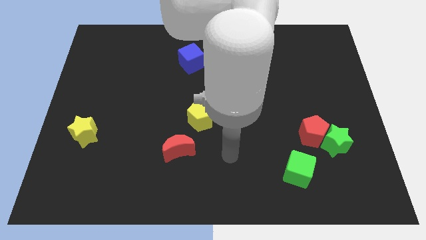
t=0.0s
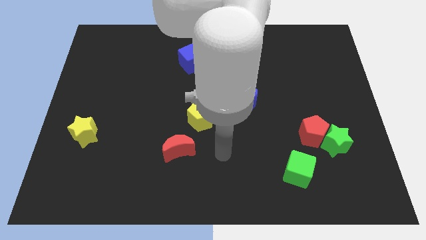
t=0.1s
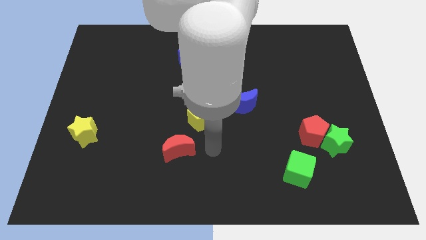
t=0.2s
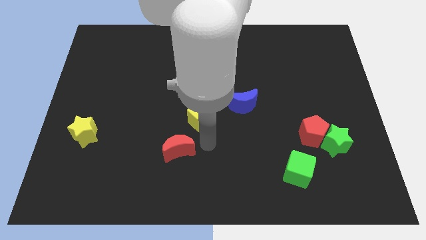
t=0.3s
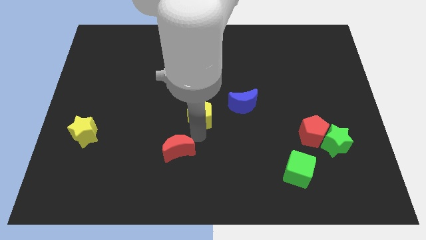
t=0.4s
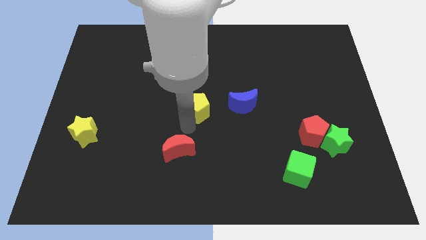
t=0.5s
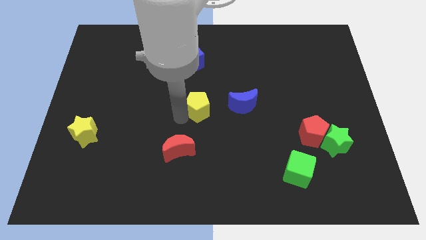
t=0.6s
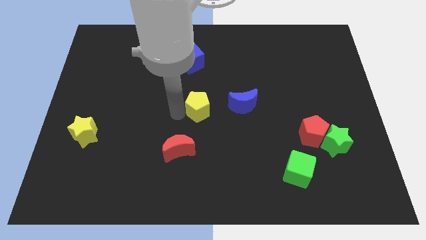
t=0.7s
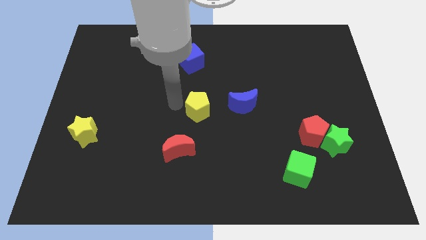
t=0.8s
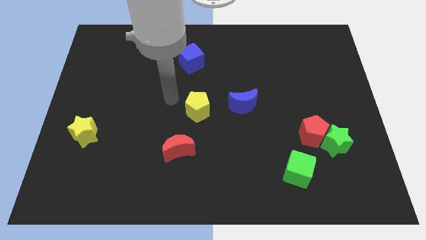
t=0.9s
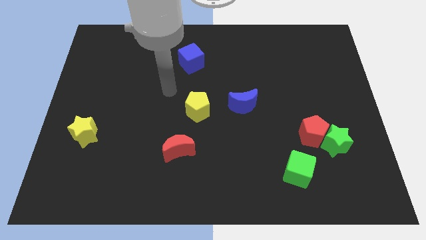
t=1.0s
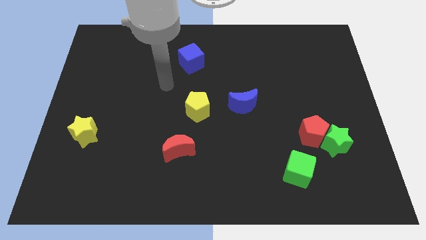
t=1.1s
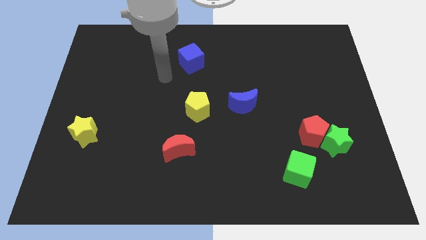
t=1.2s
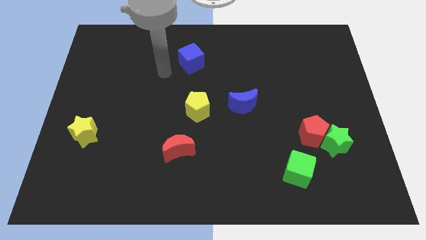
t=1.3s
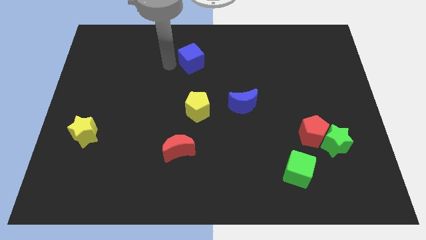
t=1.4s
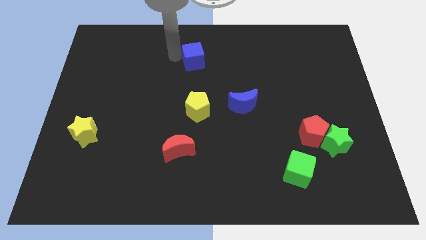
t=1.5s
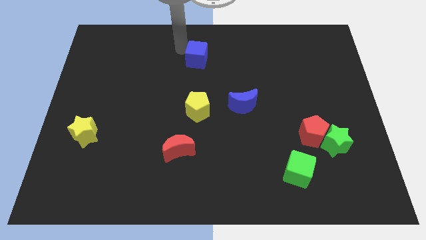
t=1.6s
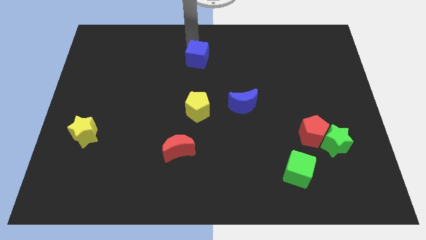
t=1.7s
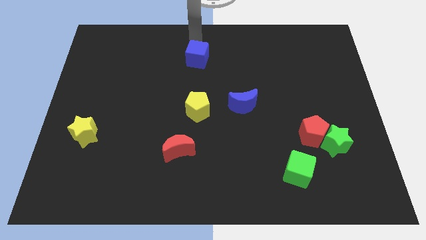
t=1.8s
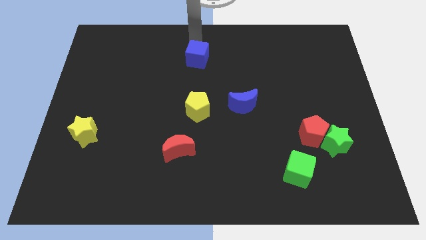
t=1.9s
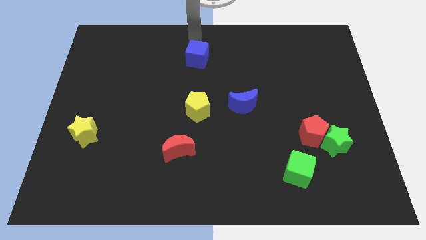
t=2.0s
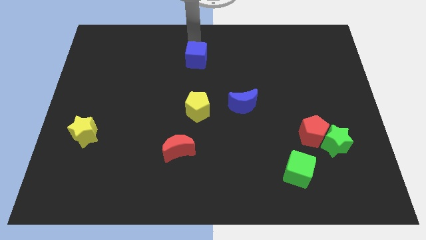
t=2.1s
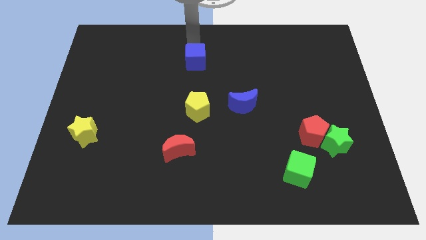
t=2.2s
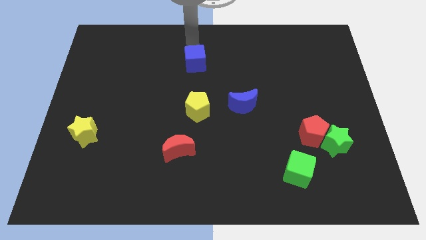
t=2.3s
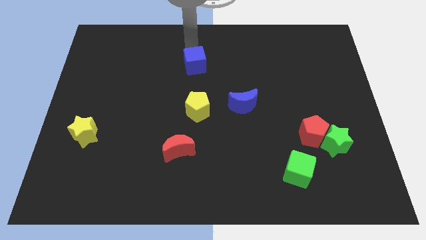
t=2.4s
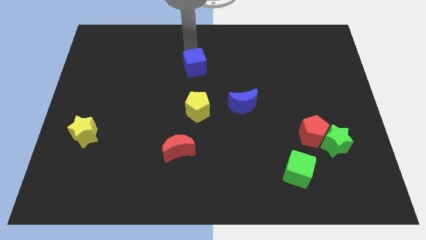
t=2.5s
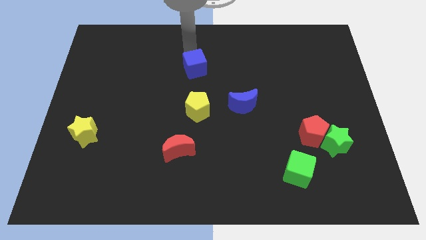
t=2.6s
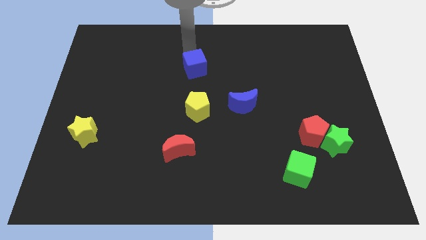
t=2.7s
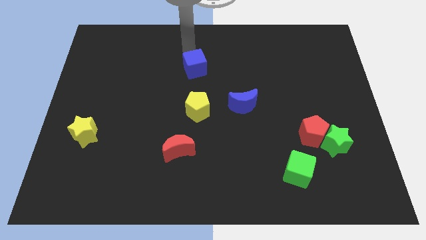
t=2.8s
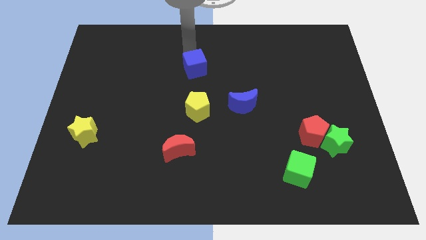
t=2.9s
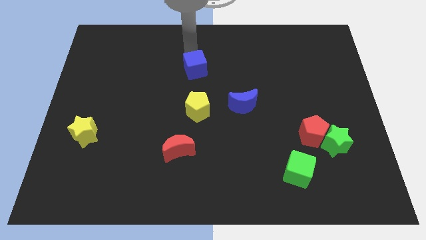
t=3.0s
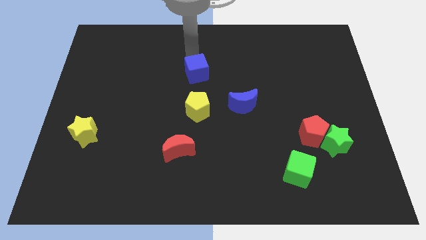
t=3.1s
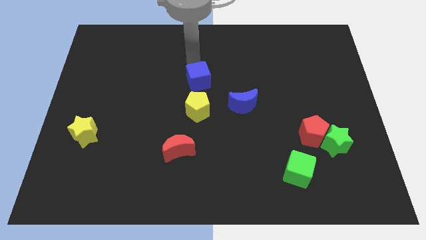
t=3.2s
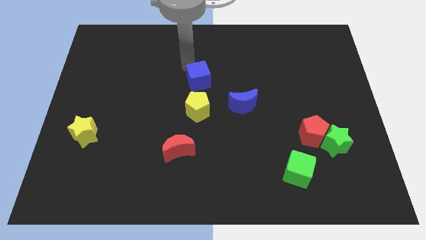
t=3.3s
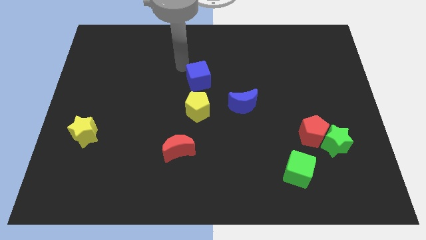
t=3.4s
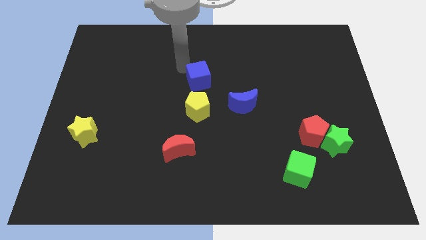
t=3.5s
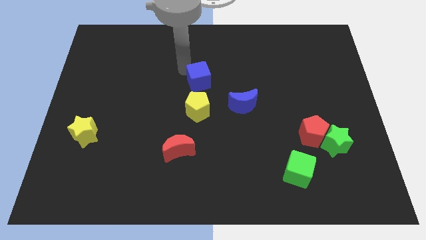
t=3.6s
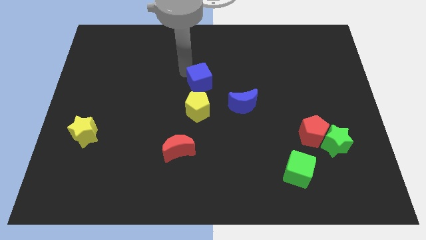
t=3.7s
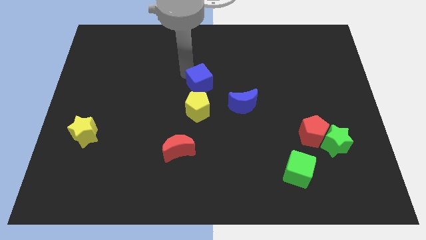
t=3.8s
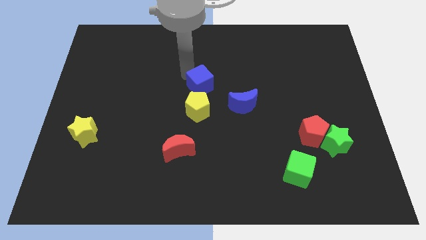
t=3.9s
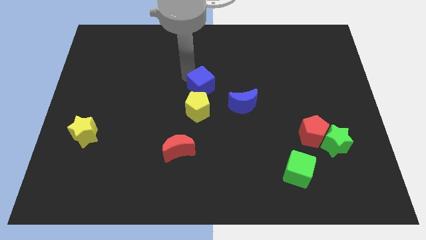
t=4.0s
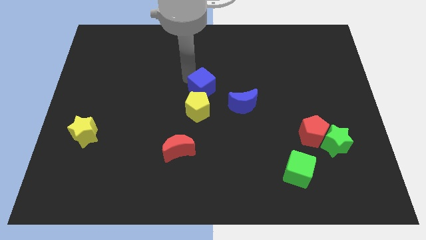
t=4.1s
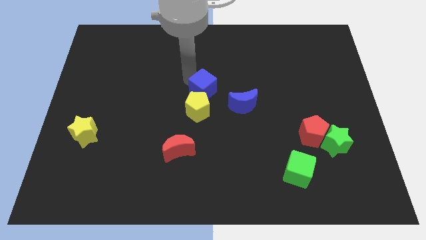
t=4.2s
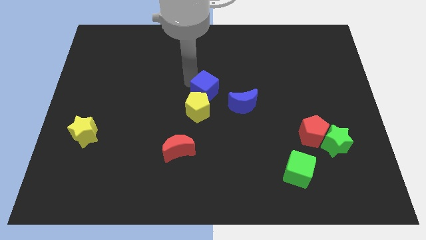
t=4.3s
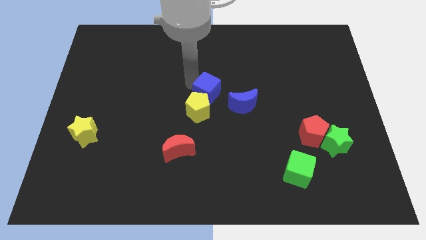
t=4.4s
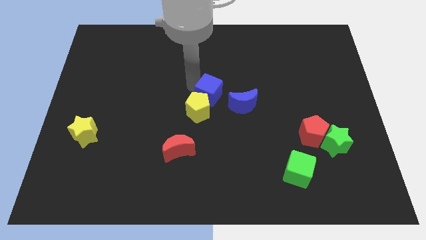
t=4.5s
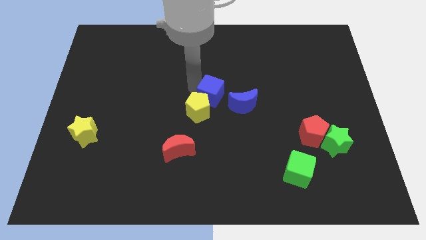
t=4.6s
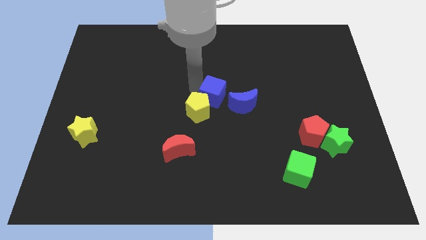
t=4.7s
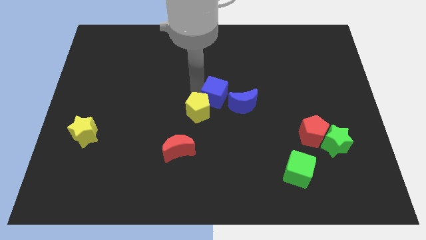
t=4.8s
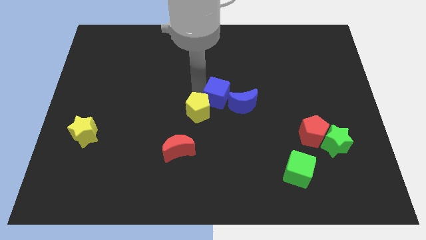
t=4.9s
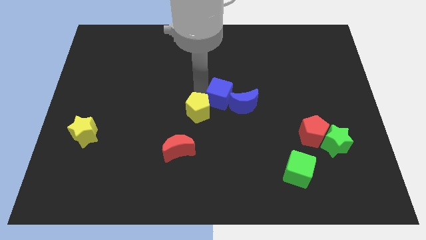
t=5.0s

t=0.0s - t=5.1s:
slide the blue cube to the blue moon

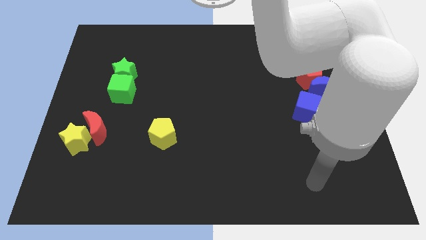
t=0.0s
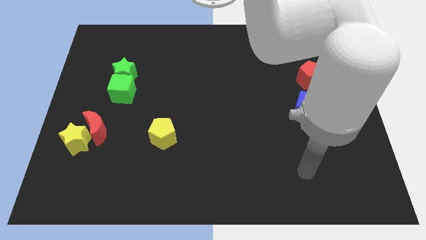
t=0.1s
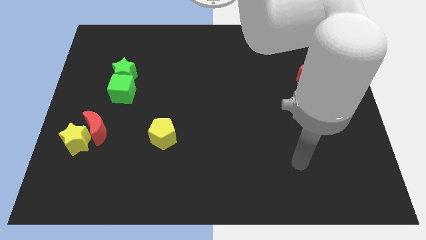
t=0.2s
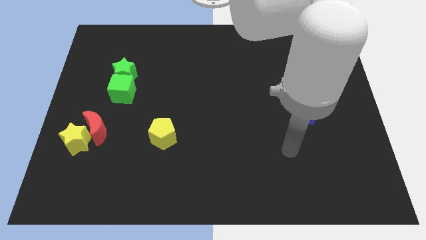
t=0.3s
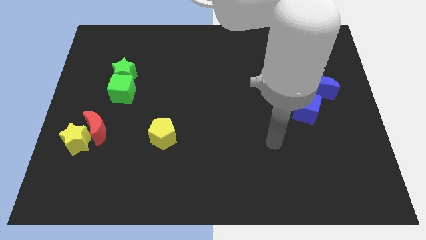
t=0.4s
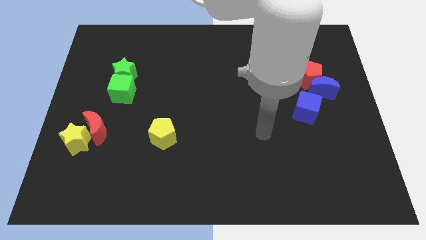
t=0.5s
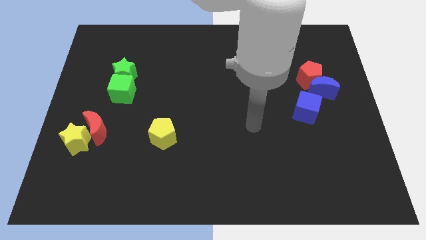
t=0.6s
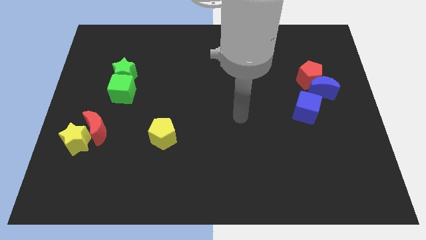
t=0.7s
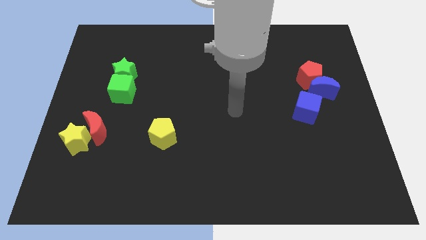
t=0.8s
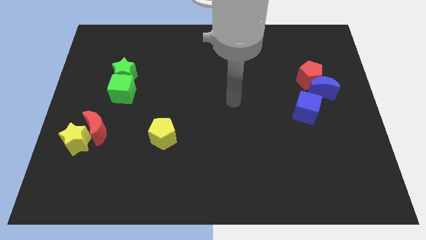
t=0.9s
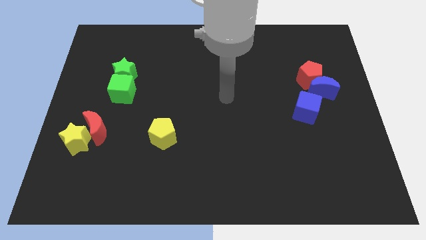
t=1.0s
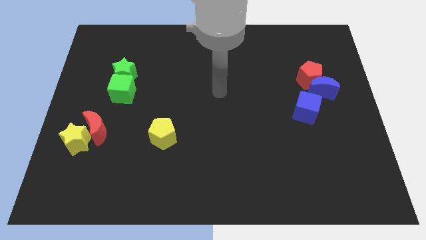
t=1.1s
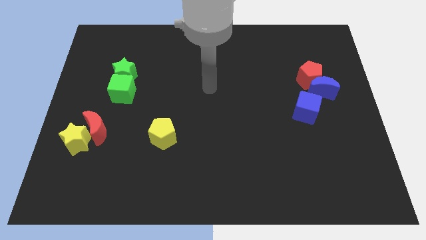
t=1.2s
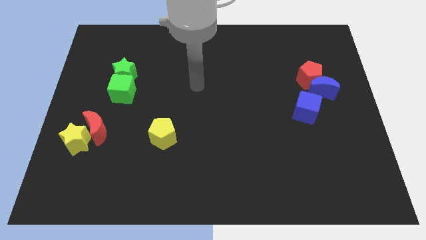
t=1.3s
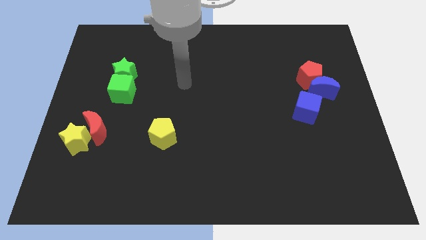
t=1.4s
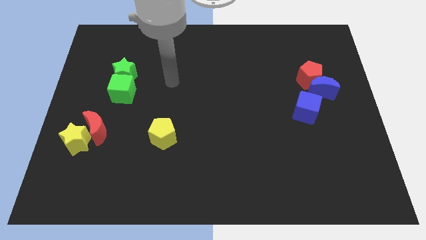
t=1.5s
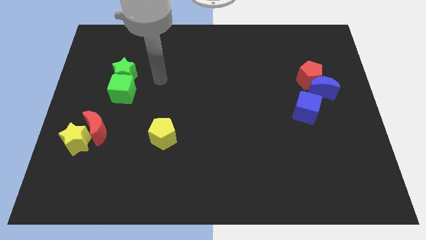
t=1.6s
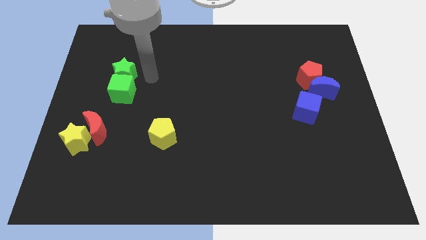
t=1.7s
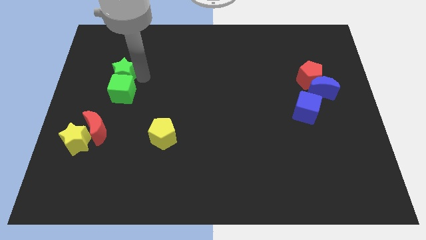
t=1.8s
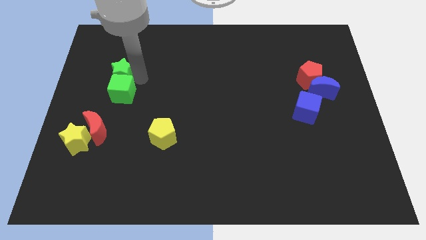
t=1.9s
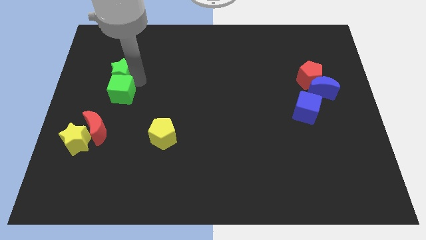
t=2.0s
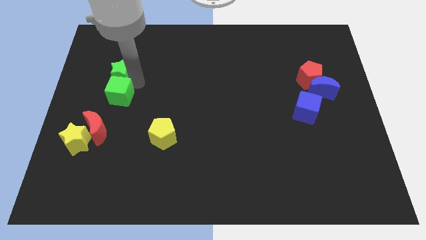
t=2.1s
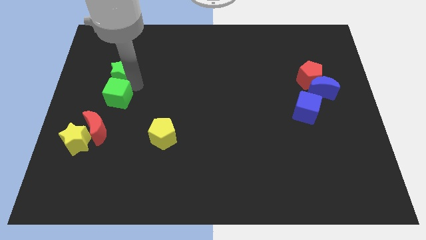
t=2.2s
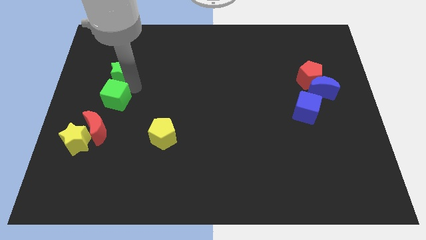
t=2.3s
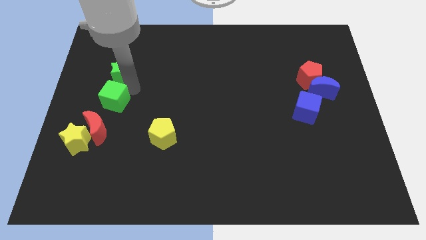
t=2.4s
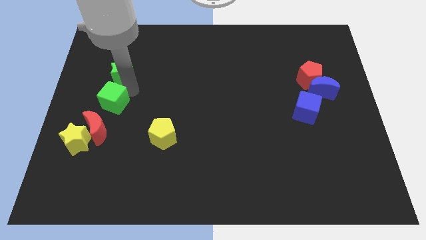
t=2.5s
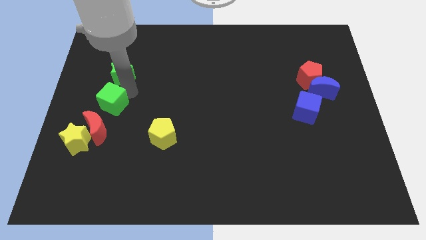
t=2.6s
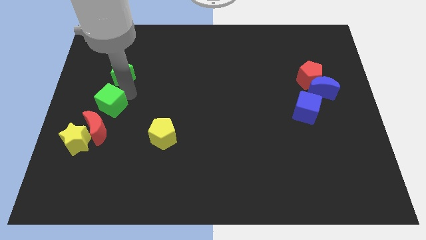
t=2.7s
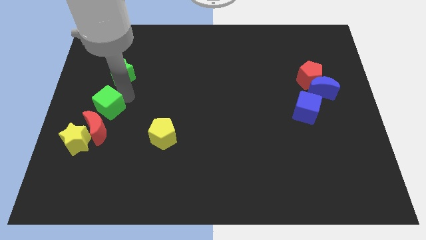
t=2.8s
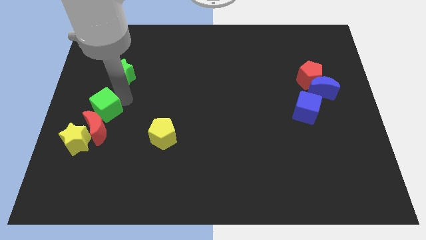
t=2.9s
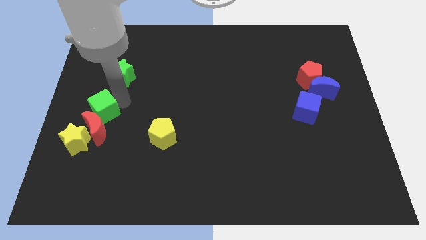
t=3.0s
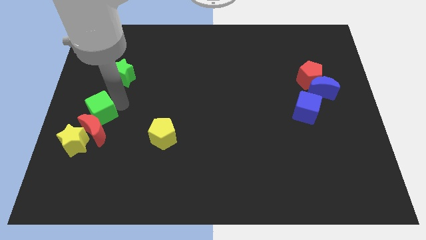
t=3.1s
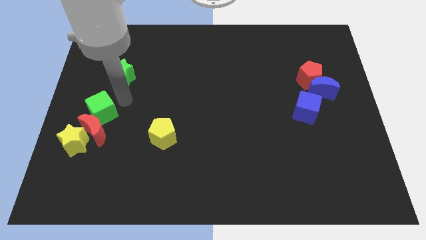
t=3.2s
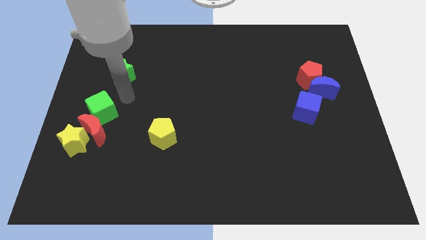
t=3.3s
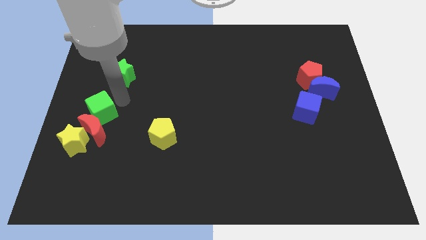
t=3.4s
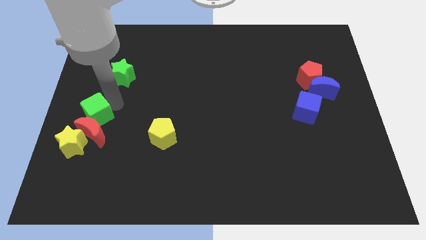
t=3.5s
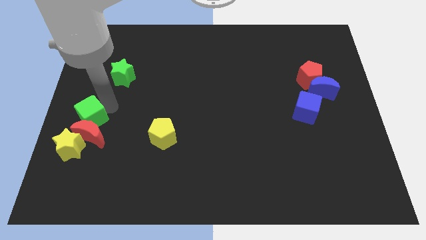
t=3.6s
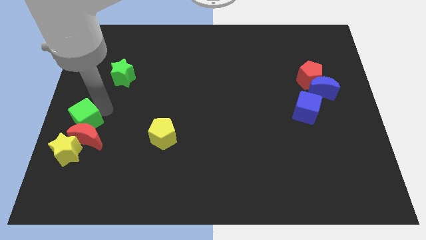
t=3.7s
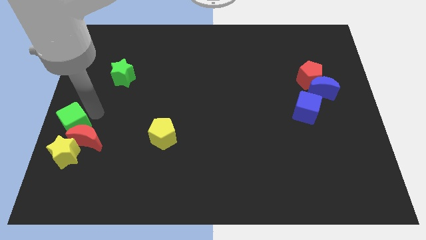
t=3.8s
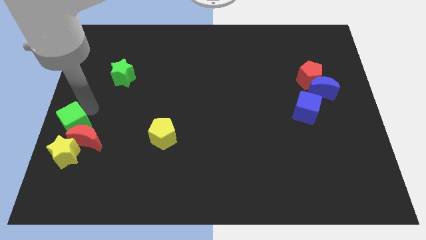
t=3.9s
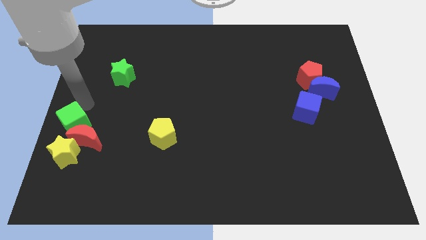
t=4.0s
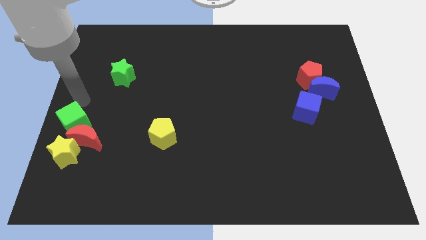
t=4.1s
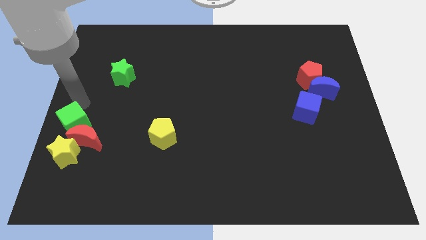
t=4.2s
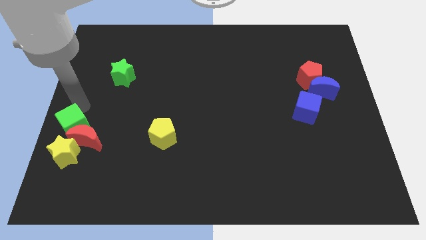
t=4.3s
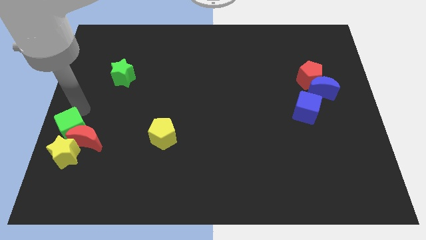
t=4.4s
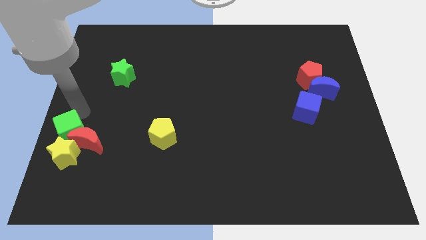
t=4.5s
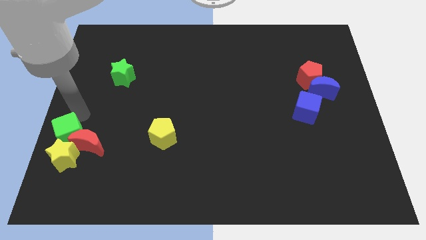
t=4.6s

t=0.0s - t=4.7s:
slide the green cube to the yellow star
